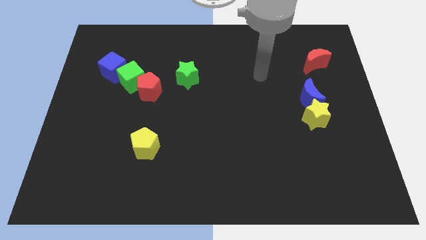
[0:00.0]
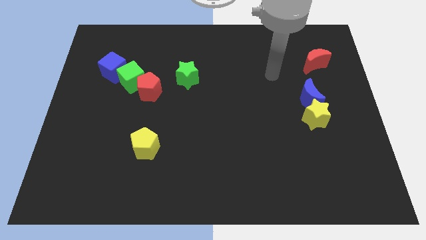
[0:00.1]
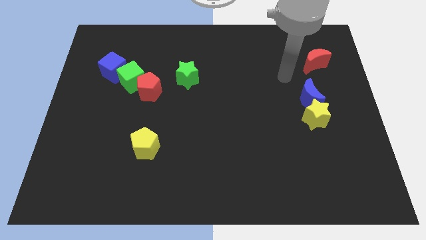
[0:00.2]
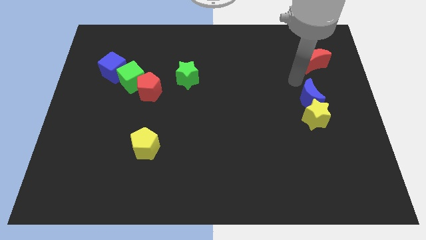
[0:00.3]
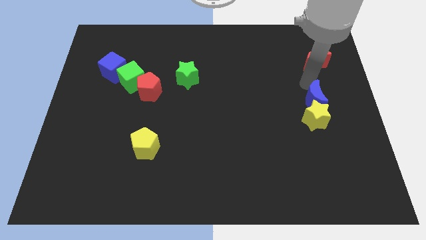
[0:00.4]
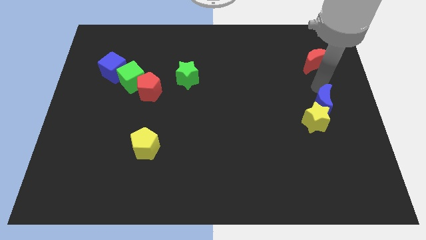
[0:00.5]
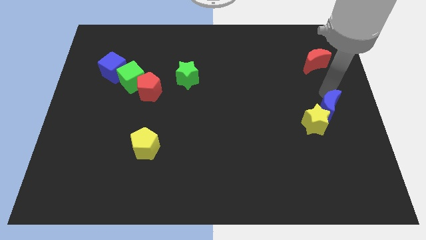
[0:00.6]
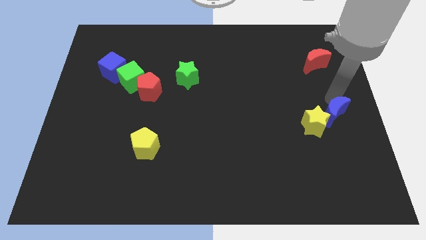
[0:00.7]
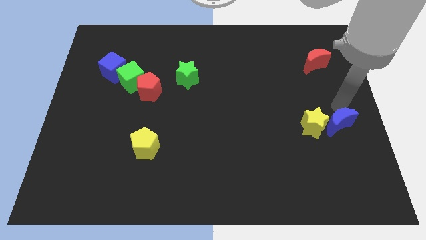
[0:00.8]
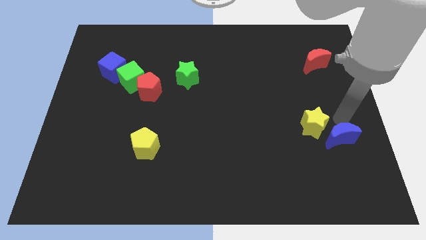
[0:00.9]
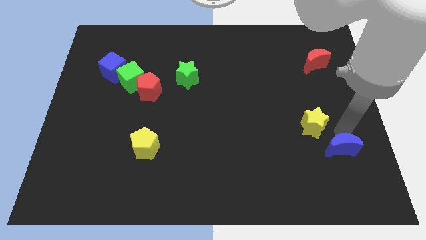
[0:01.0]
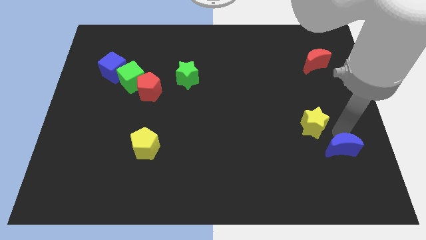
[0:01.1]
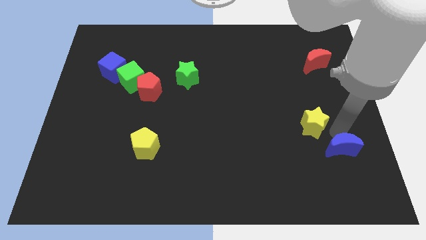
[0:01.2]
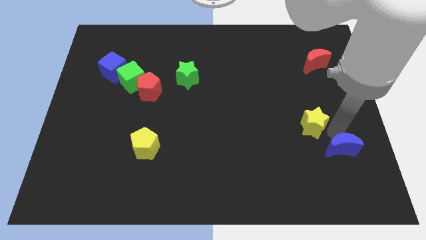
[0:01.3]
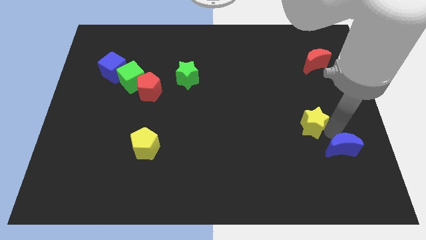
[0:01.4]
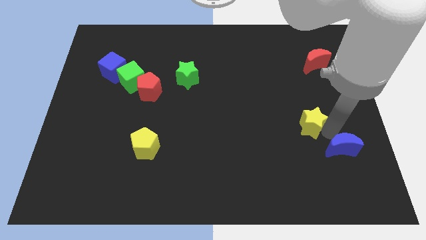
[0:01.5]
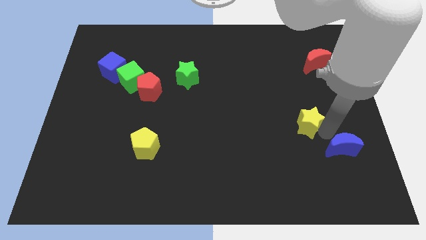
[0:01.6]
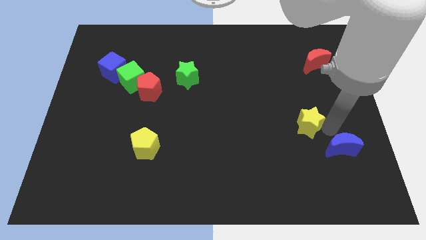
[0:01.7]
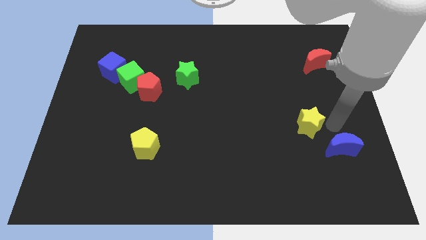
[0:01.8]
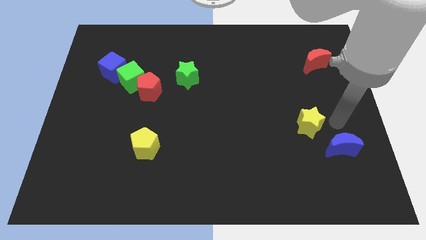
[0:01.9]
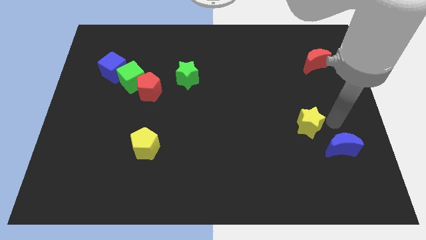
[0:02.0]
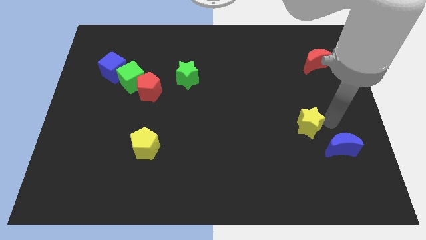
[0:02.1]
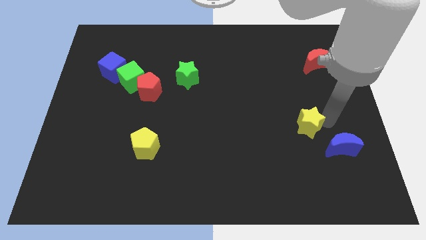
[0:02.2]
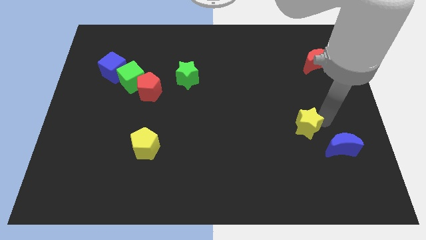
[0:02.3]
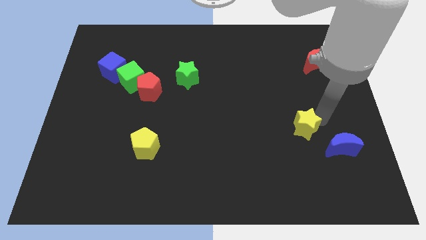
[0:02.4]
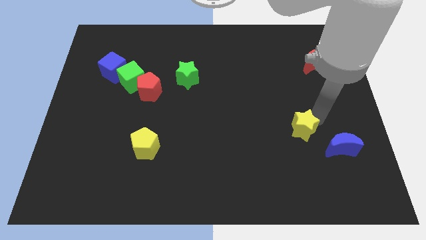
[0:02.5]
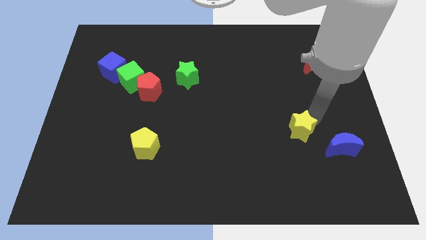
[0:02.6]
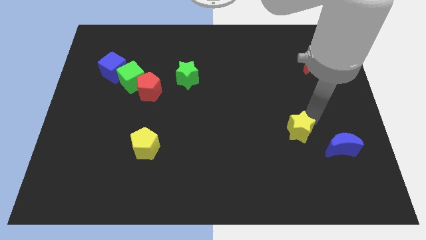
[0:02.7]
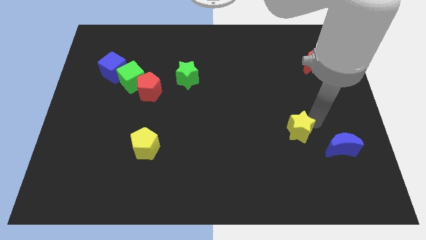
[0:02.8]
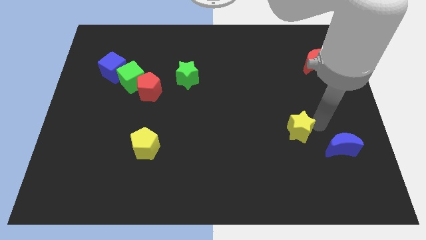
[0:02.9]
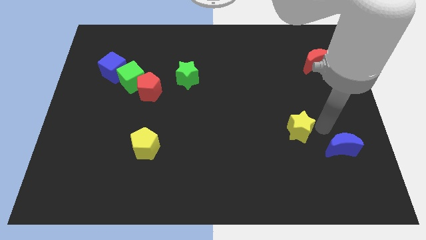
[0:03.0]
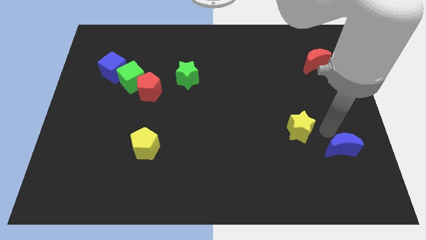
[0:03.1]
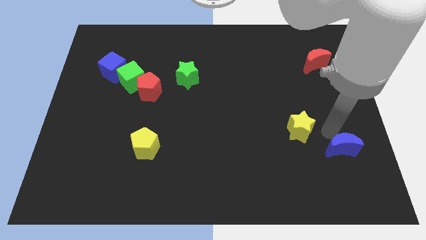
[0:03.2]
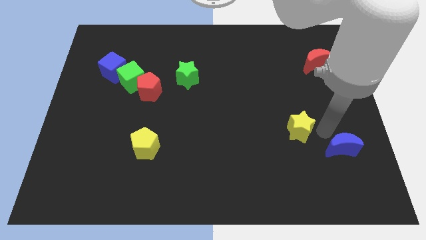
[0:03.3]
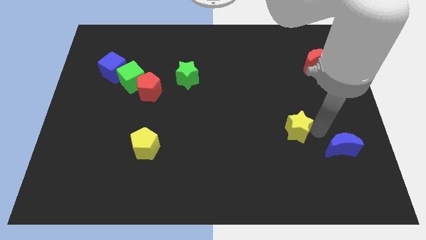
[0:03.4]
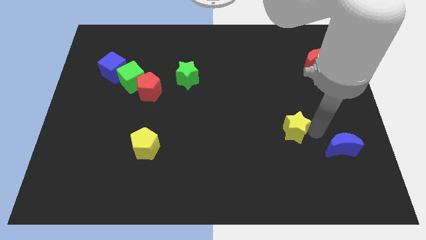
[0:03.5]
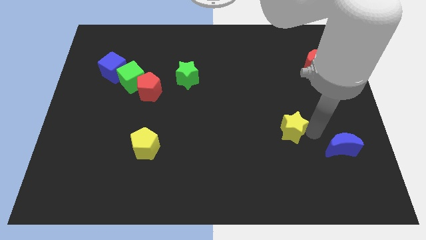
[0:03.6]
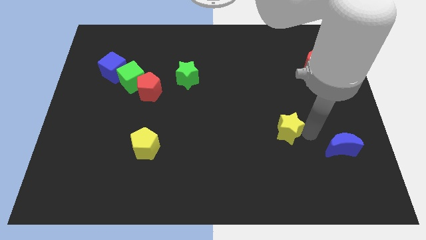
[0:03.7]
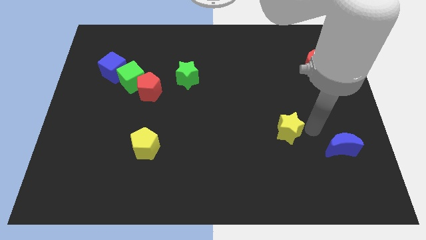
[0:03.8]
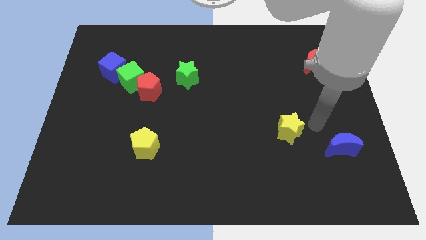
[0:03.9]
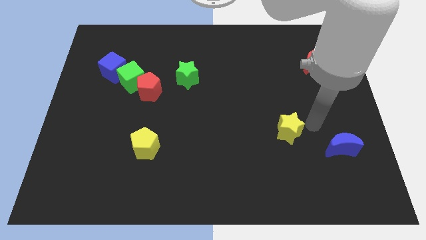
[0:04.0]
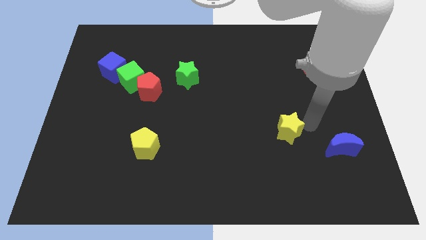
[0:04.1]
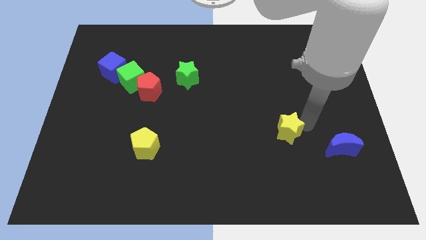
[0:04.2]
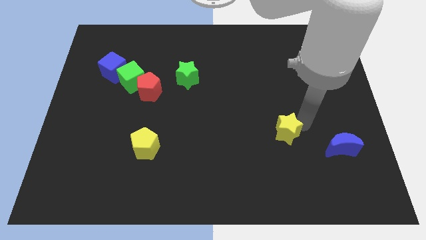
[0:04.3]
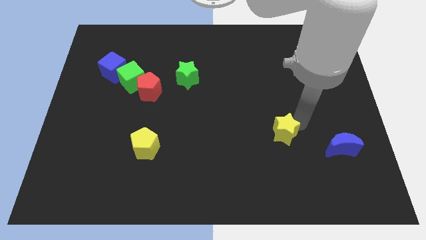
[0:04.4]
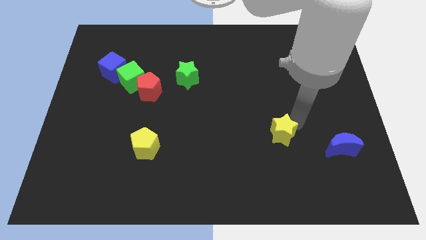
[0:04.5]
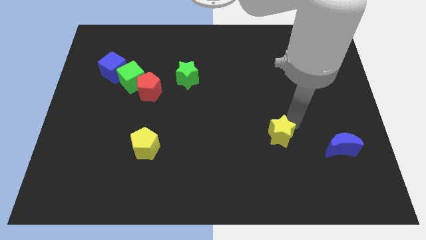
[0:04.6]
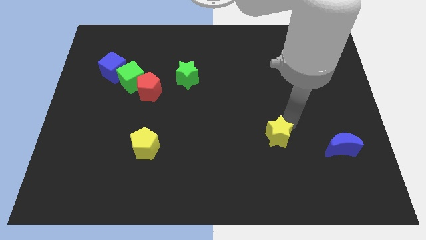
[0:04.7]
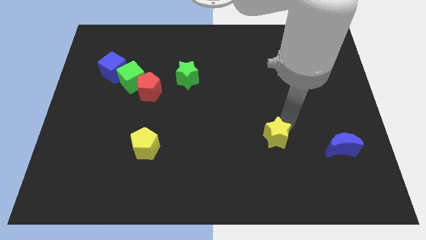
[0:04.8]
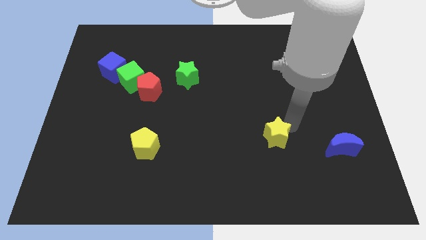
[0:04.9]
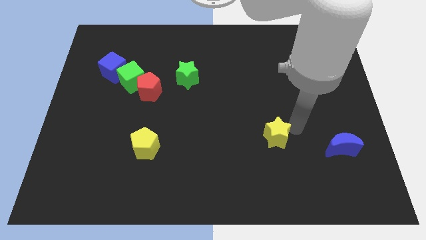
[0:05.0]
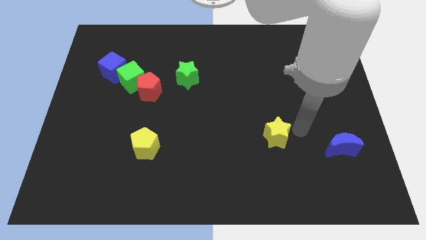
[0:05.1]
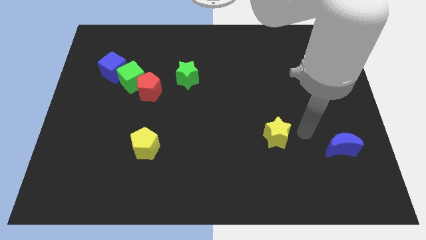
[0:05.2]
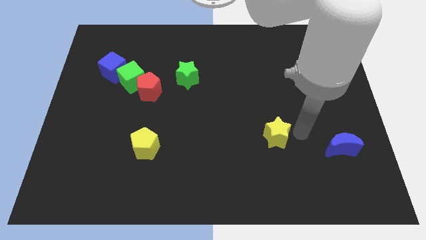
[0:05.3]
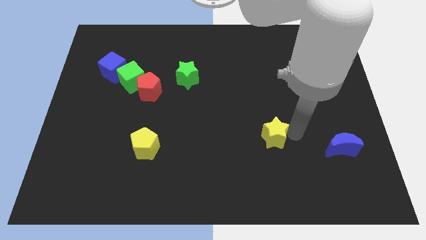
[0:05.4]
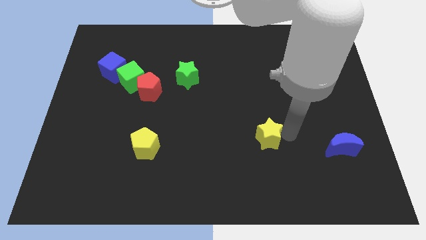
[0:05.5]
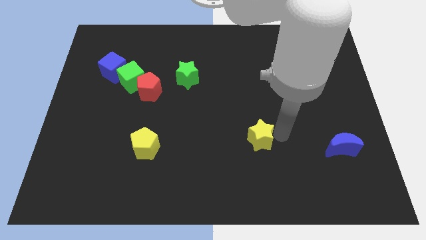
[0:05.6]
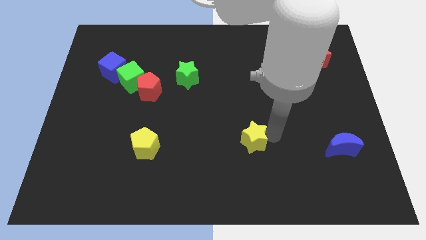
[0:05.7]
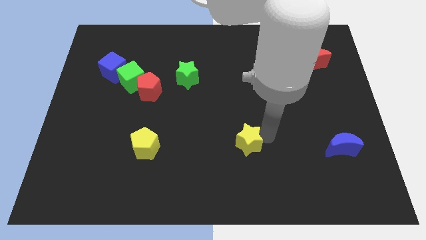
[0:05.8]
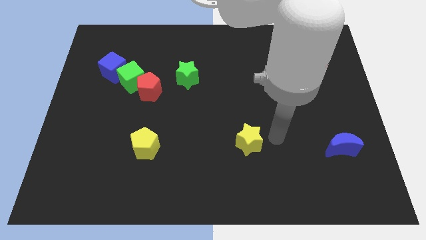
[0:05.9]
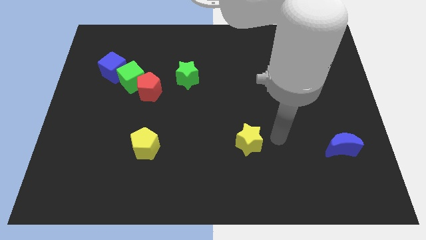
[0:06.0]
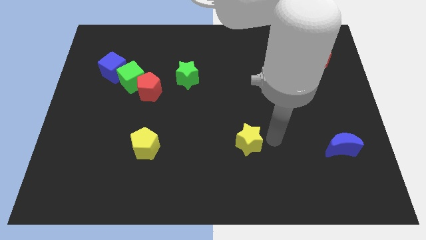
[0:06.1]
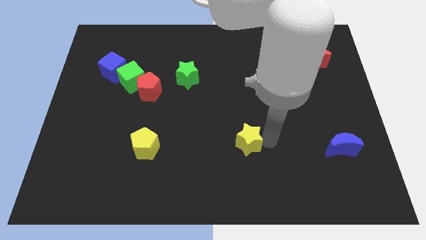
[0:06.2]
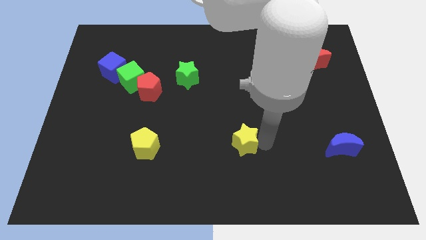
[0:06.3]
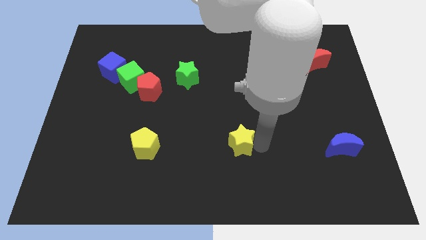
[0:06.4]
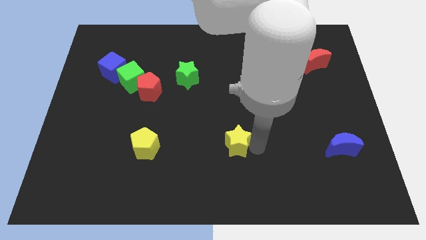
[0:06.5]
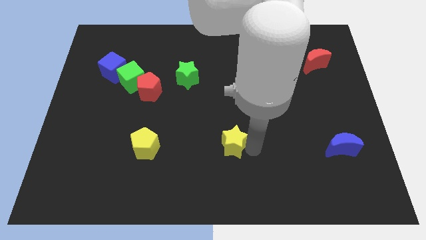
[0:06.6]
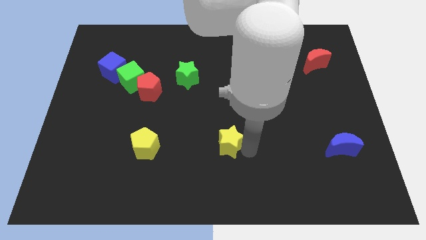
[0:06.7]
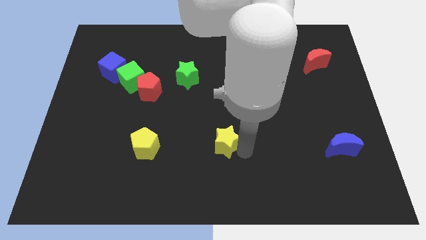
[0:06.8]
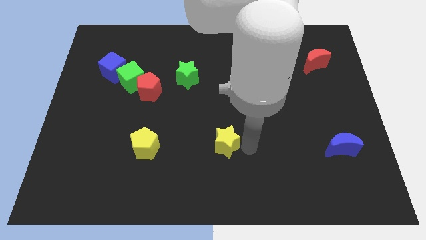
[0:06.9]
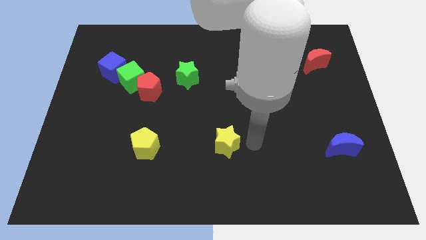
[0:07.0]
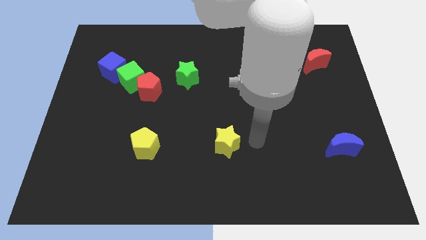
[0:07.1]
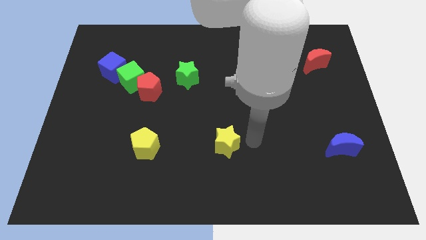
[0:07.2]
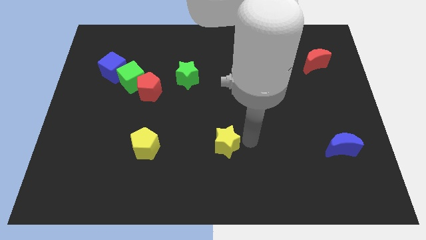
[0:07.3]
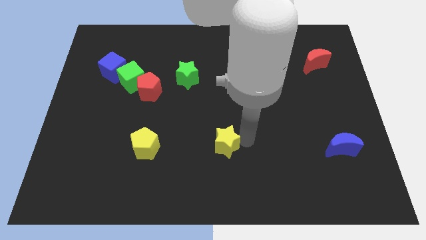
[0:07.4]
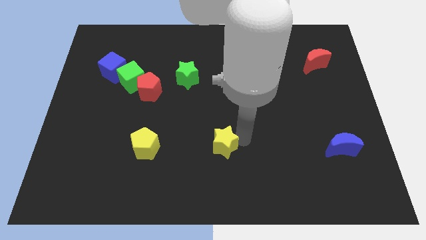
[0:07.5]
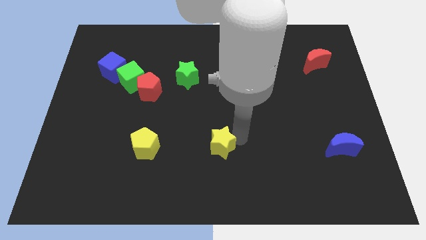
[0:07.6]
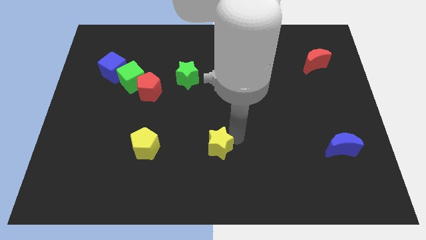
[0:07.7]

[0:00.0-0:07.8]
slide the yellow star to the right of the yellow pentagon
